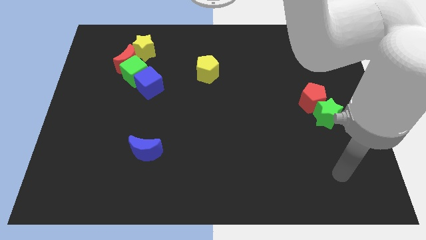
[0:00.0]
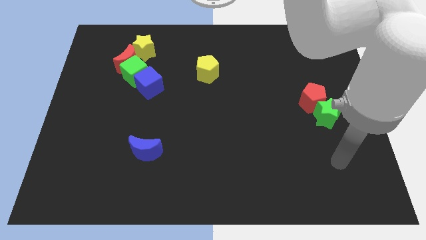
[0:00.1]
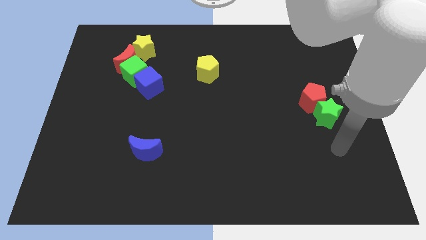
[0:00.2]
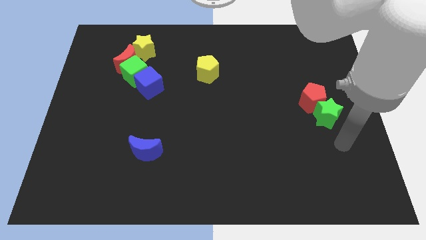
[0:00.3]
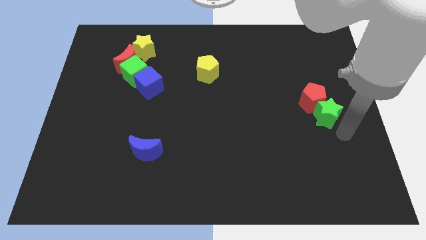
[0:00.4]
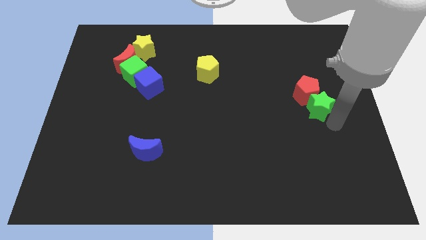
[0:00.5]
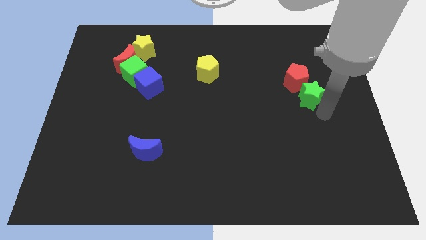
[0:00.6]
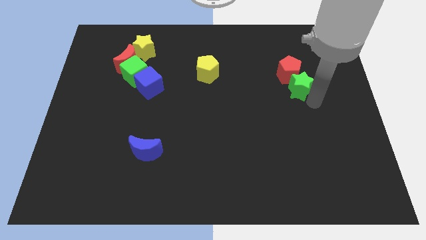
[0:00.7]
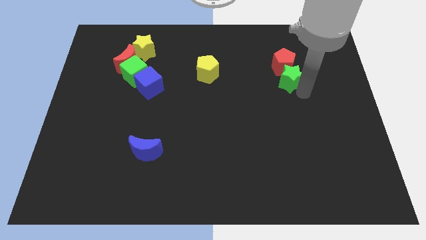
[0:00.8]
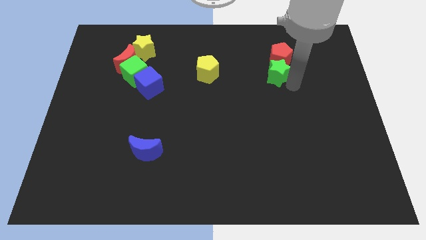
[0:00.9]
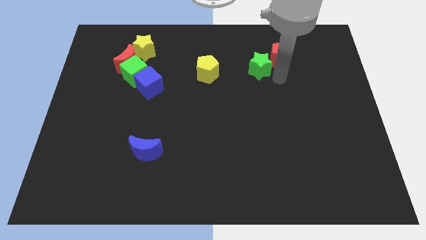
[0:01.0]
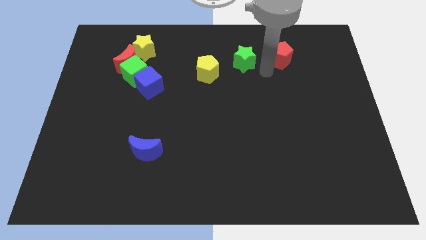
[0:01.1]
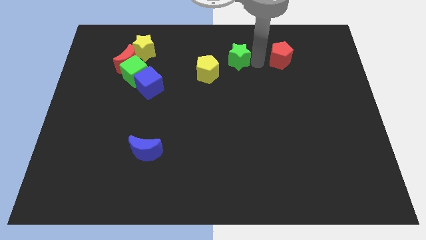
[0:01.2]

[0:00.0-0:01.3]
move the red pentagon away from the green star

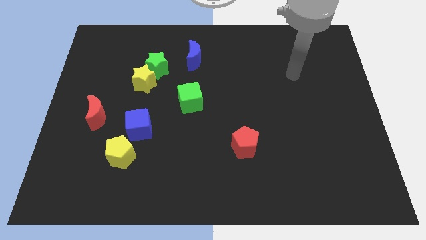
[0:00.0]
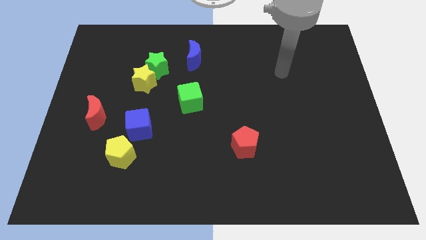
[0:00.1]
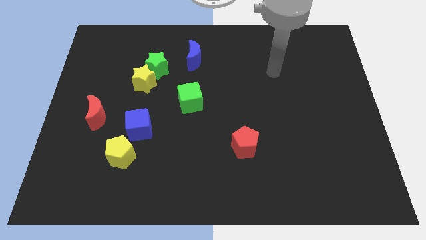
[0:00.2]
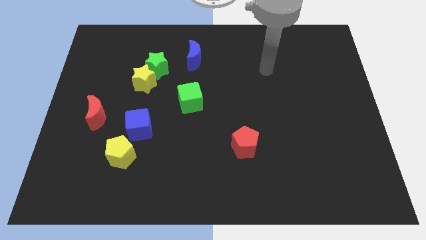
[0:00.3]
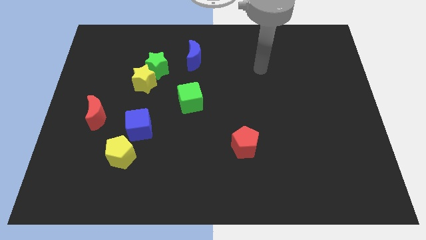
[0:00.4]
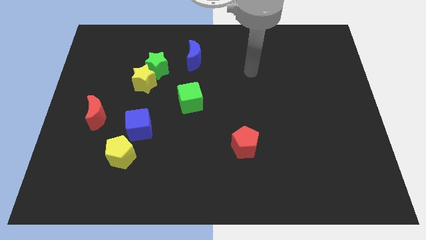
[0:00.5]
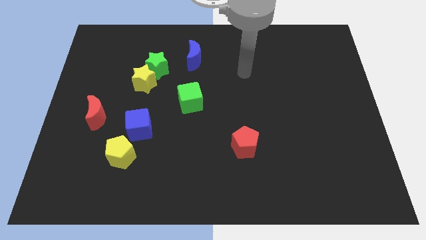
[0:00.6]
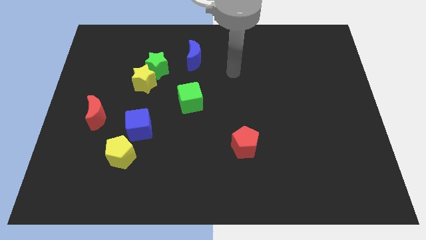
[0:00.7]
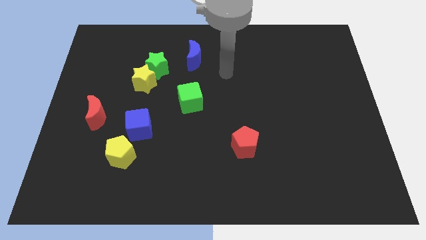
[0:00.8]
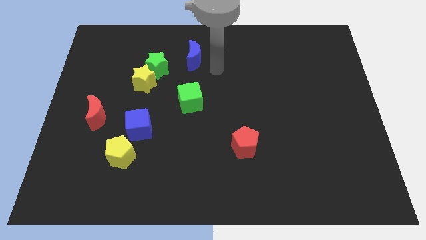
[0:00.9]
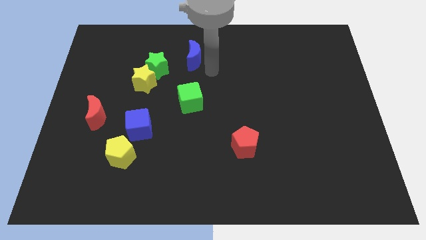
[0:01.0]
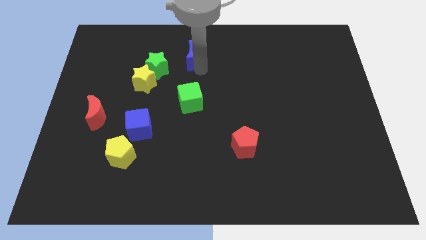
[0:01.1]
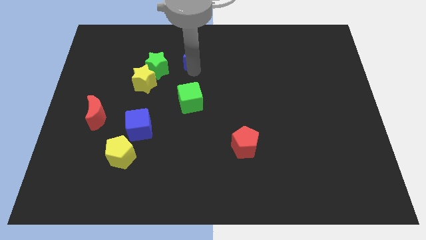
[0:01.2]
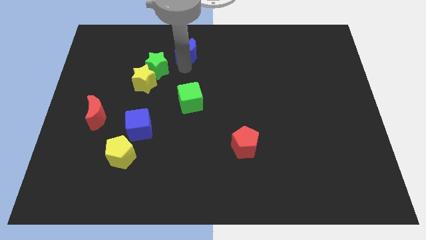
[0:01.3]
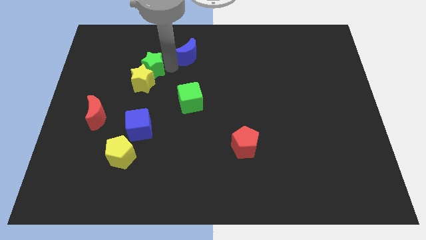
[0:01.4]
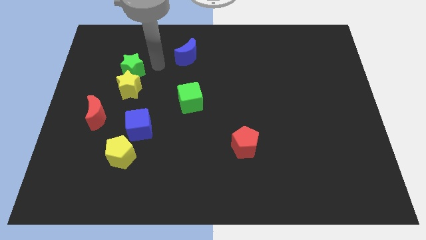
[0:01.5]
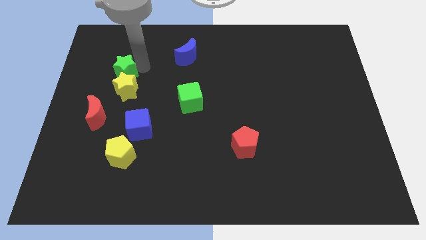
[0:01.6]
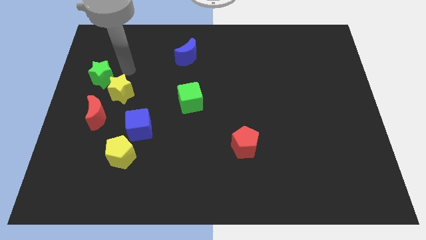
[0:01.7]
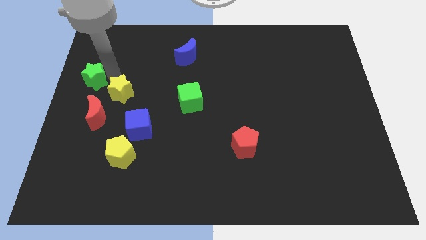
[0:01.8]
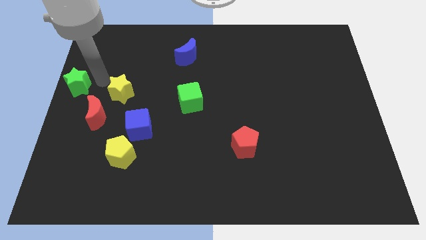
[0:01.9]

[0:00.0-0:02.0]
move the yellow star away from the green star

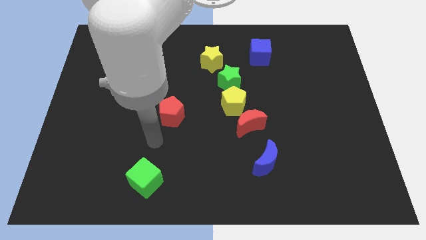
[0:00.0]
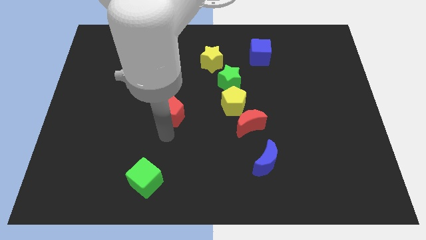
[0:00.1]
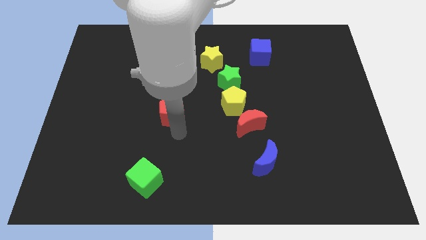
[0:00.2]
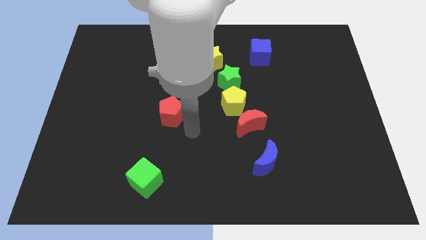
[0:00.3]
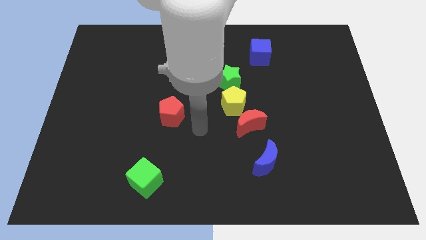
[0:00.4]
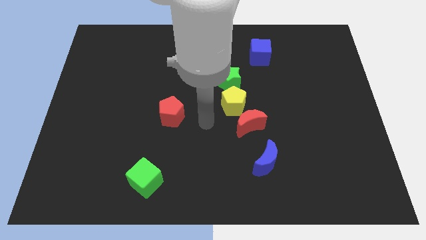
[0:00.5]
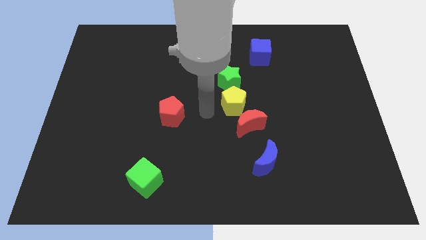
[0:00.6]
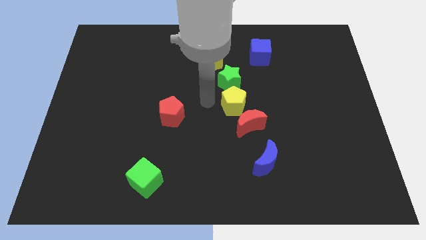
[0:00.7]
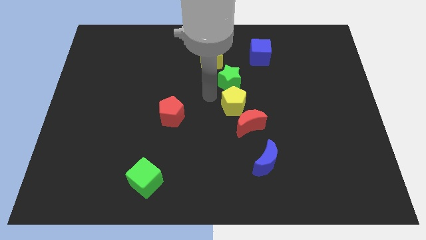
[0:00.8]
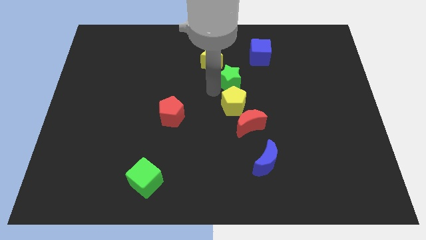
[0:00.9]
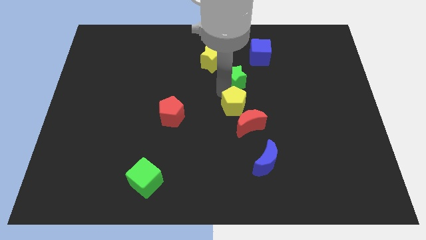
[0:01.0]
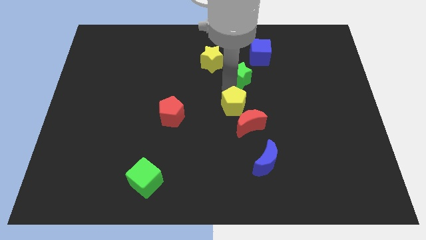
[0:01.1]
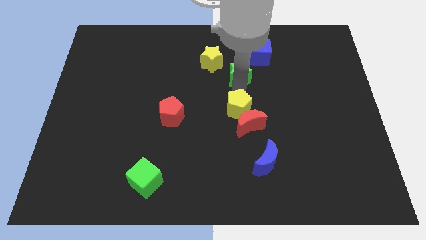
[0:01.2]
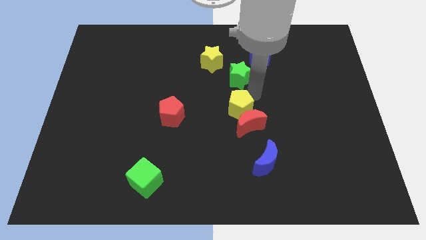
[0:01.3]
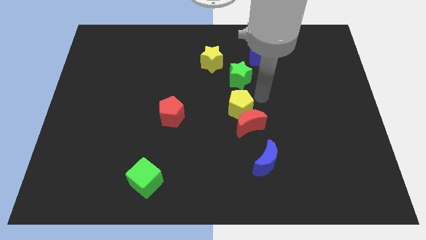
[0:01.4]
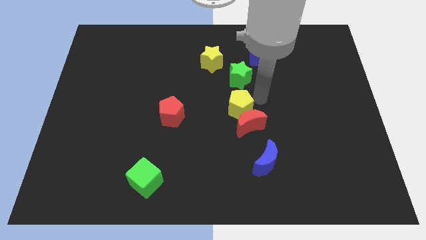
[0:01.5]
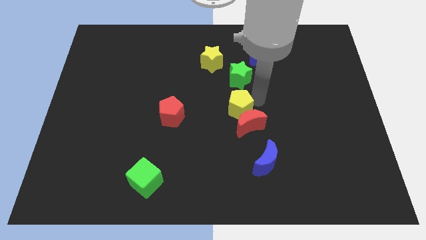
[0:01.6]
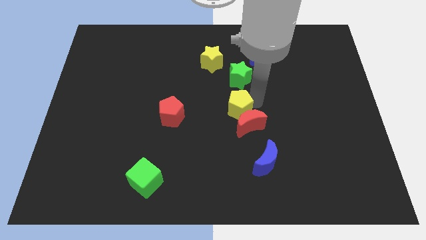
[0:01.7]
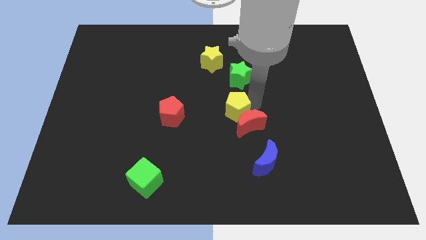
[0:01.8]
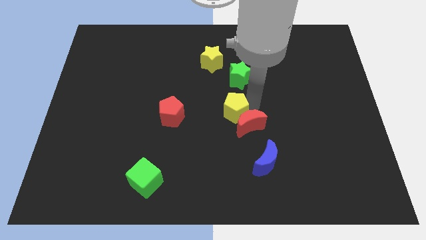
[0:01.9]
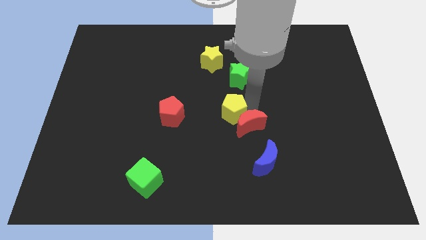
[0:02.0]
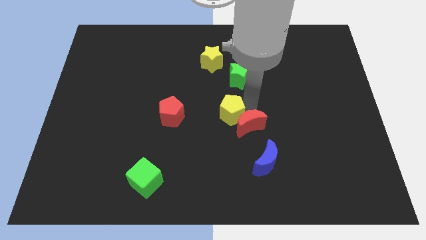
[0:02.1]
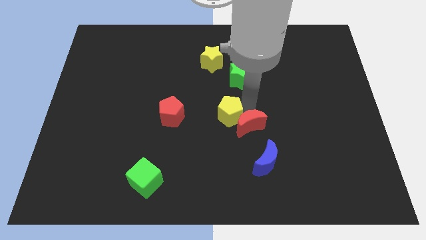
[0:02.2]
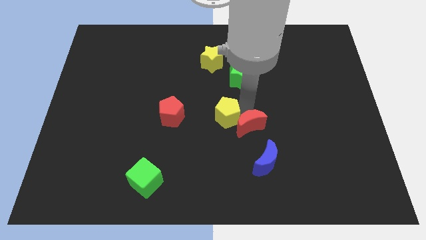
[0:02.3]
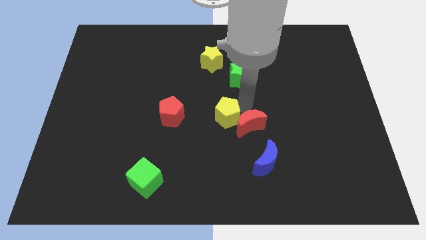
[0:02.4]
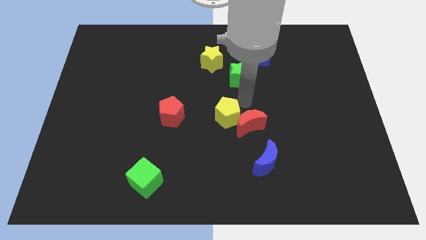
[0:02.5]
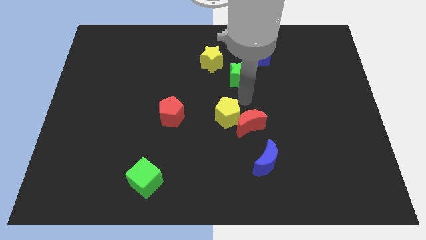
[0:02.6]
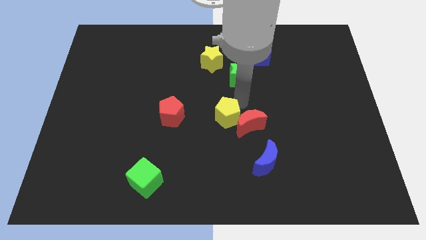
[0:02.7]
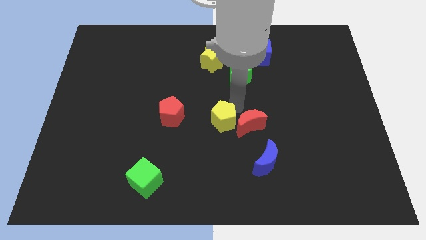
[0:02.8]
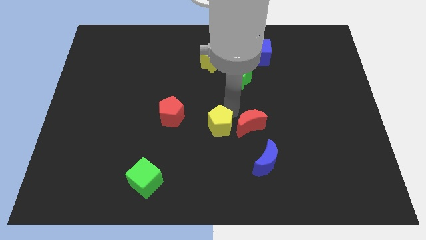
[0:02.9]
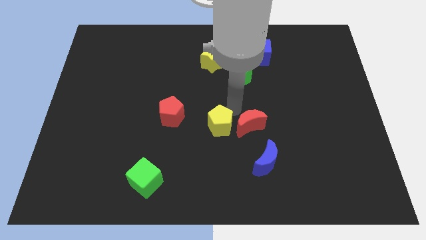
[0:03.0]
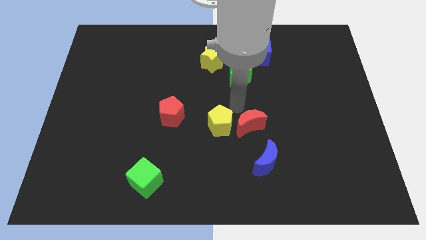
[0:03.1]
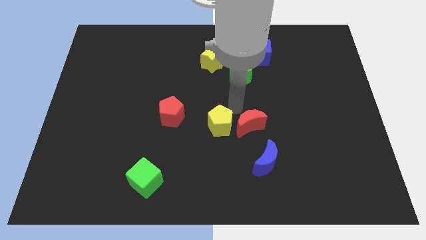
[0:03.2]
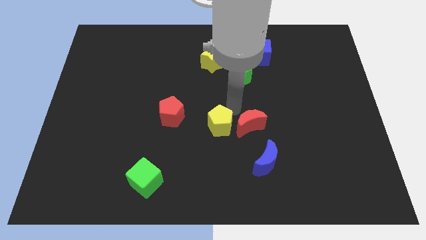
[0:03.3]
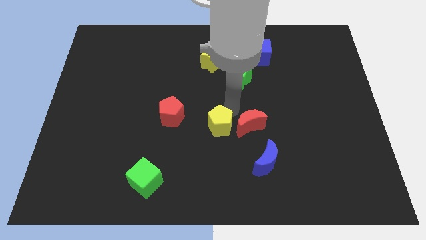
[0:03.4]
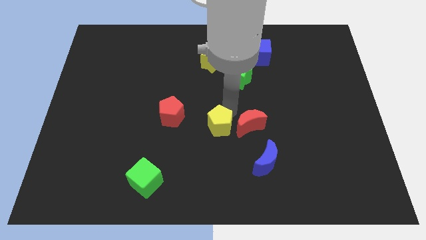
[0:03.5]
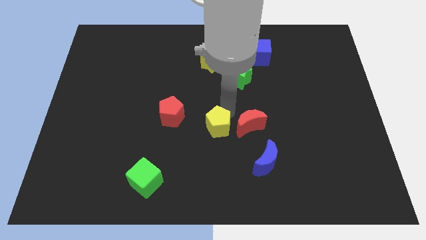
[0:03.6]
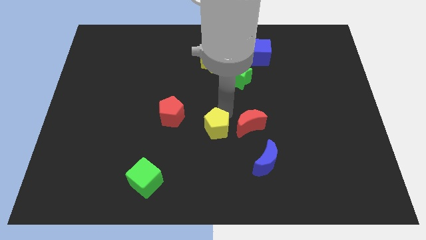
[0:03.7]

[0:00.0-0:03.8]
pull the yellow pentagon apart from the red moon and green star

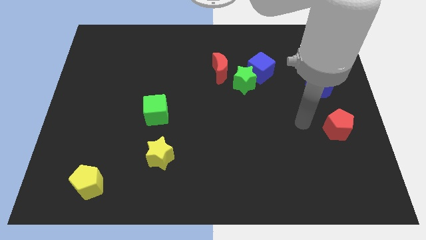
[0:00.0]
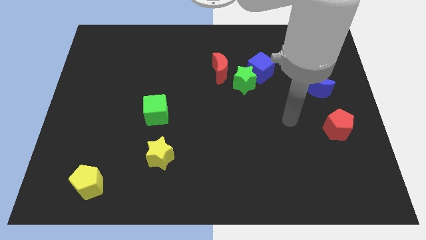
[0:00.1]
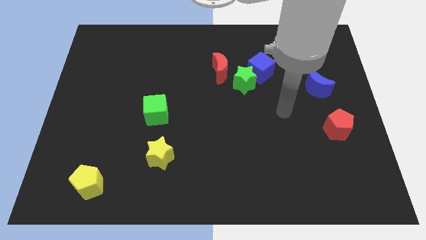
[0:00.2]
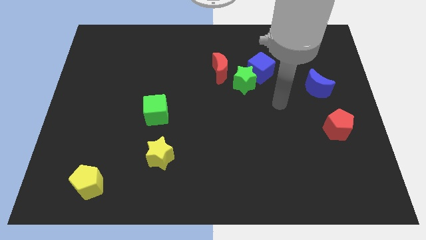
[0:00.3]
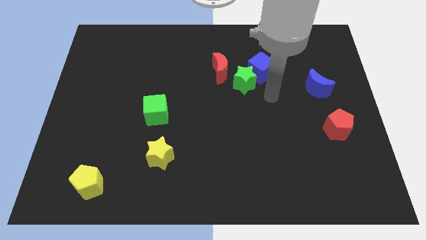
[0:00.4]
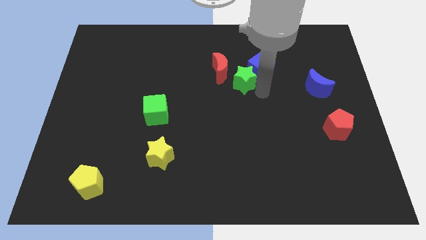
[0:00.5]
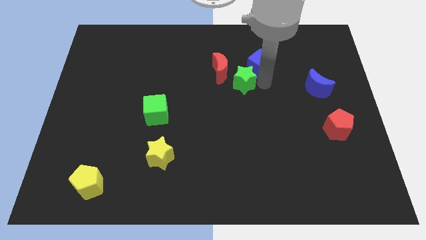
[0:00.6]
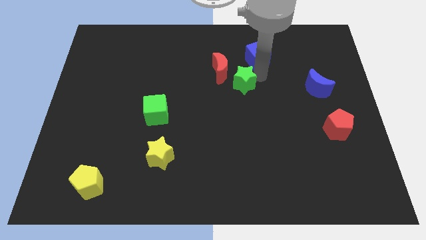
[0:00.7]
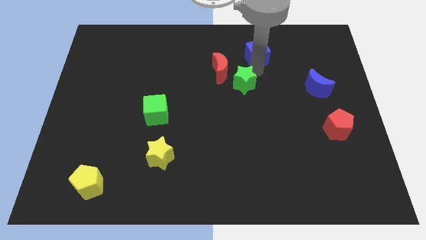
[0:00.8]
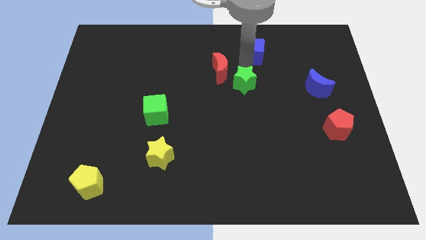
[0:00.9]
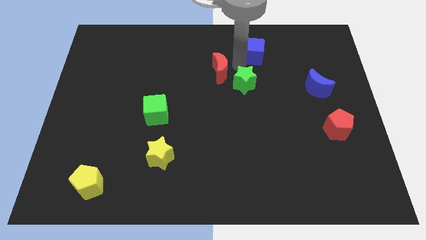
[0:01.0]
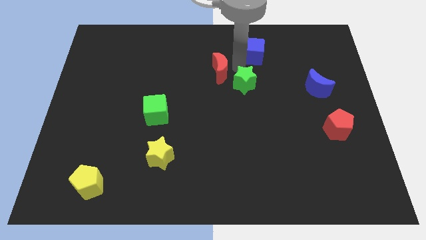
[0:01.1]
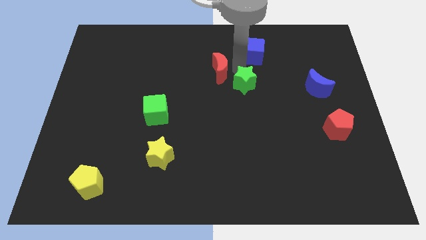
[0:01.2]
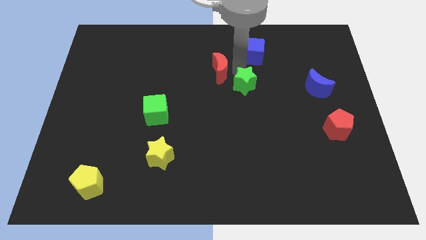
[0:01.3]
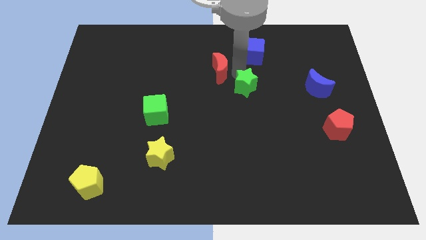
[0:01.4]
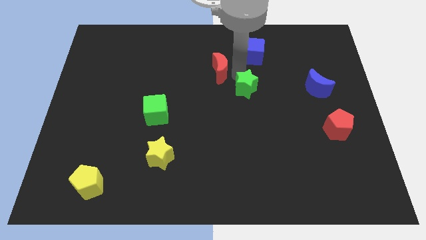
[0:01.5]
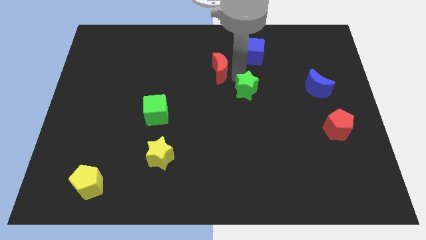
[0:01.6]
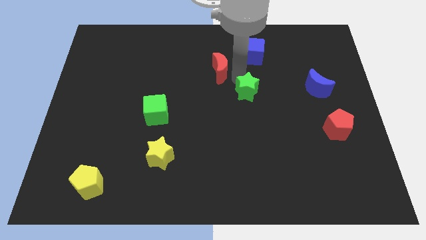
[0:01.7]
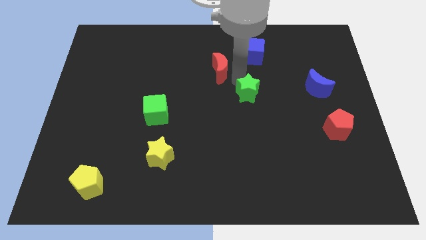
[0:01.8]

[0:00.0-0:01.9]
separate the green star from the blue cube and red moon

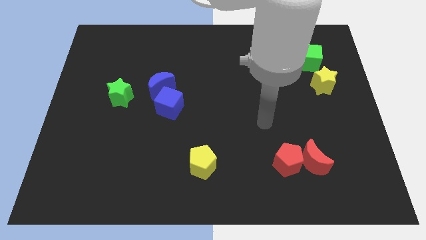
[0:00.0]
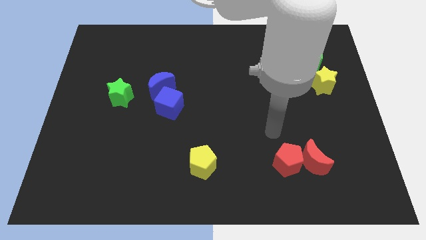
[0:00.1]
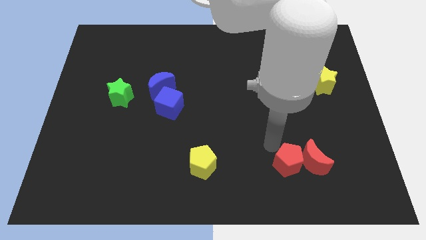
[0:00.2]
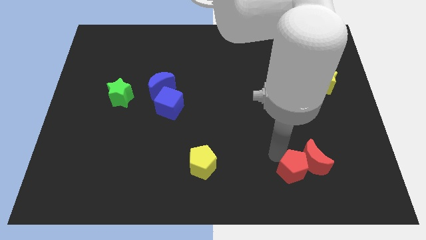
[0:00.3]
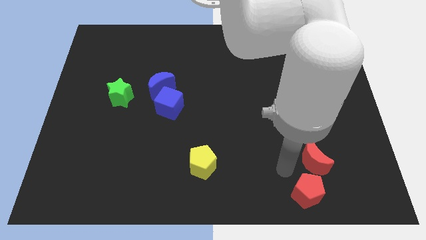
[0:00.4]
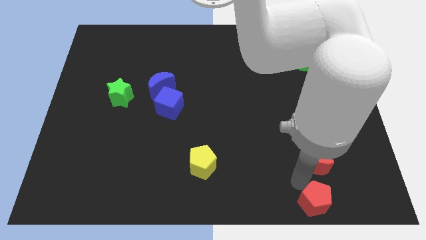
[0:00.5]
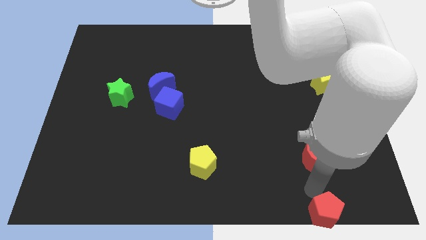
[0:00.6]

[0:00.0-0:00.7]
separate the red moon from the red pentagon
